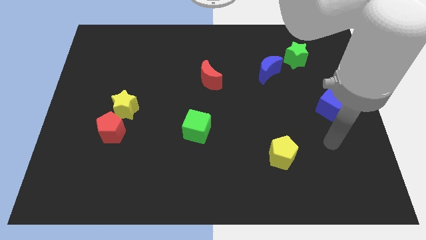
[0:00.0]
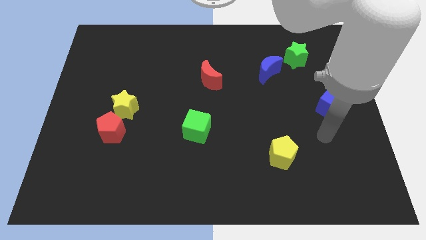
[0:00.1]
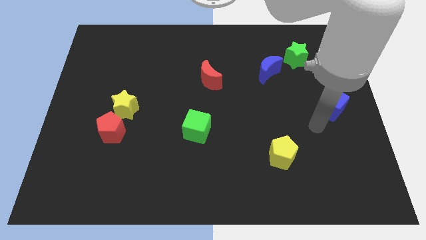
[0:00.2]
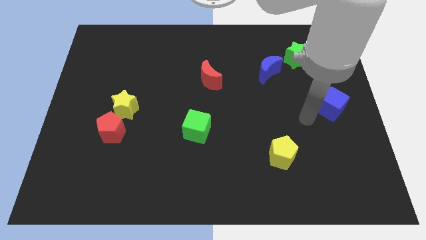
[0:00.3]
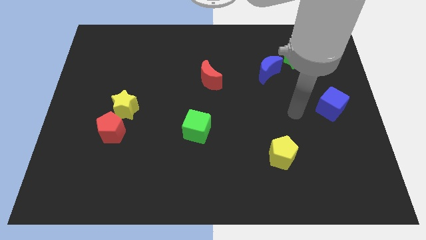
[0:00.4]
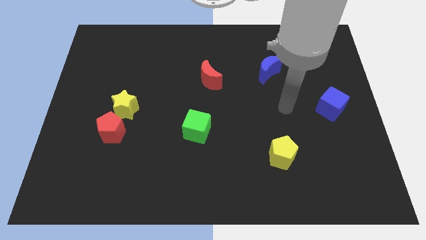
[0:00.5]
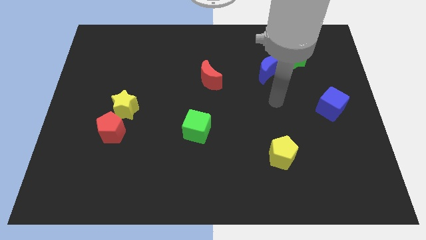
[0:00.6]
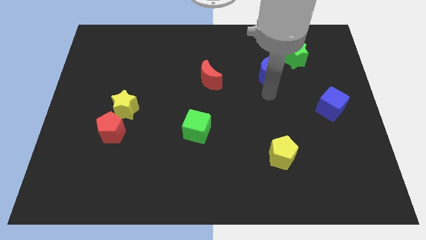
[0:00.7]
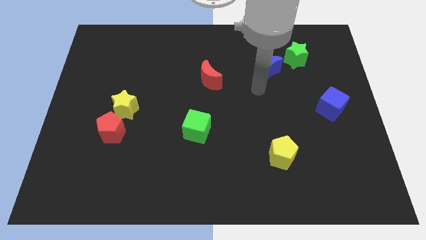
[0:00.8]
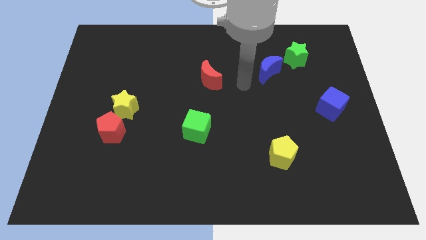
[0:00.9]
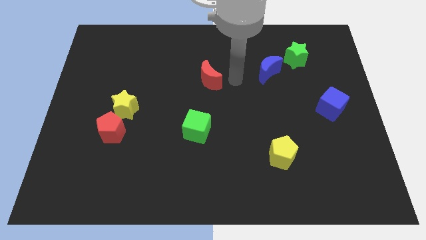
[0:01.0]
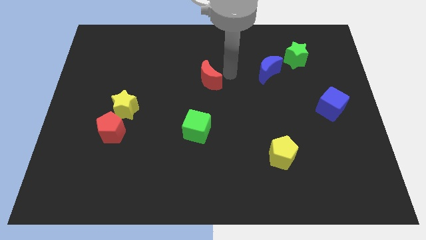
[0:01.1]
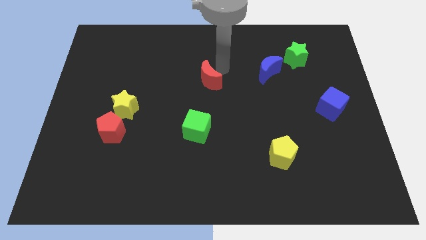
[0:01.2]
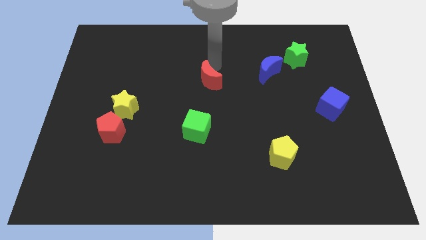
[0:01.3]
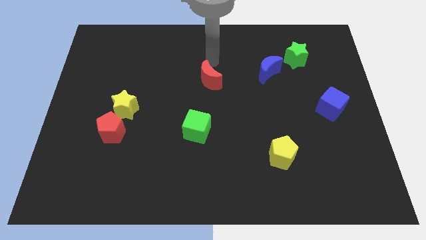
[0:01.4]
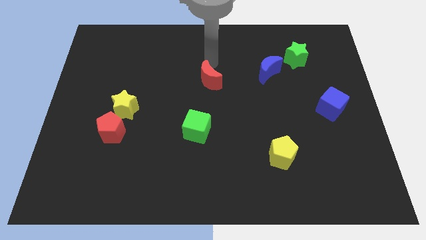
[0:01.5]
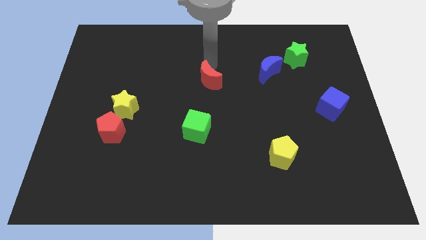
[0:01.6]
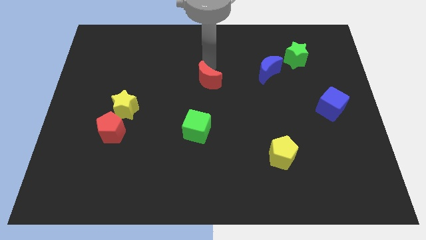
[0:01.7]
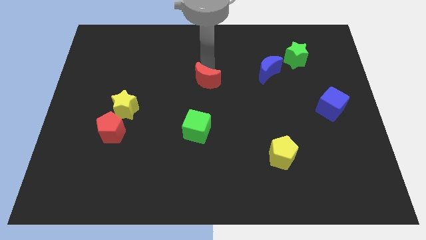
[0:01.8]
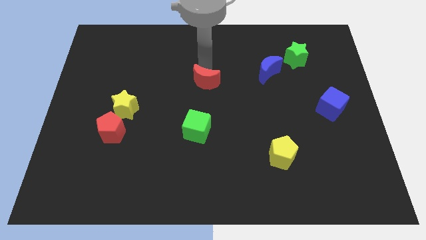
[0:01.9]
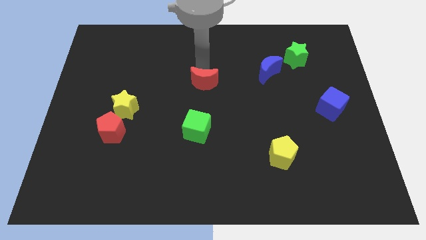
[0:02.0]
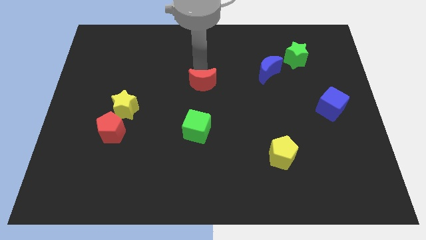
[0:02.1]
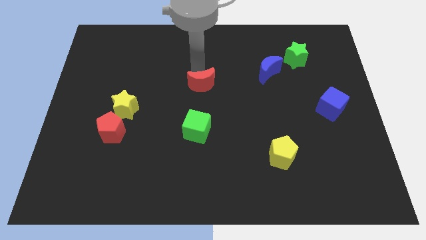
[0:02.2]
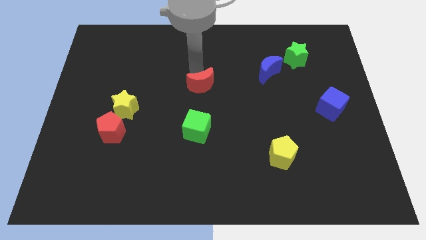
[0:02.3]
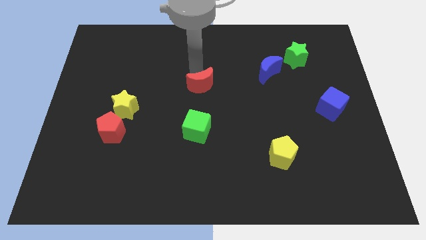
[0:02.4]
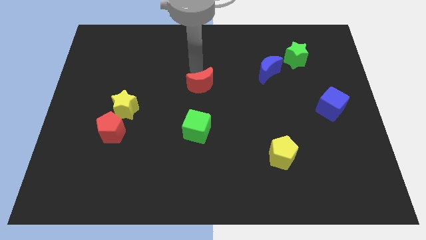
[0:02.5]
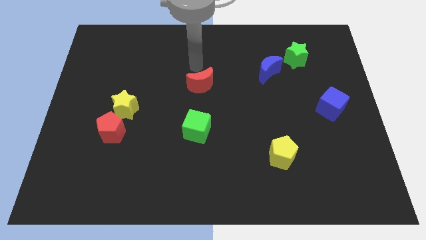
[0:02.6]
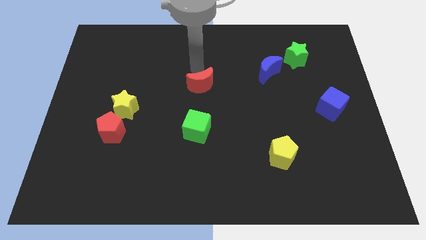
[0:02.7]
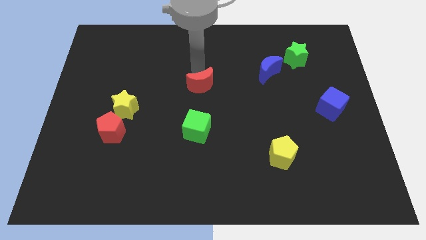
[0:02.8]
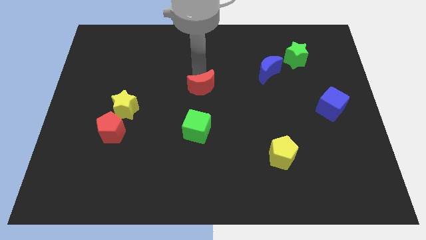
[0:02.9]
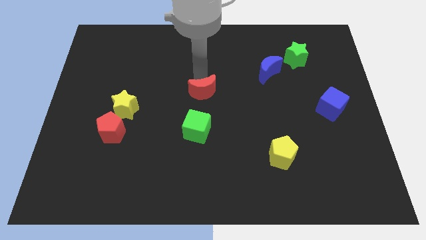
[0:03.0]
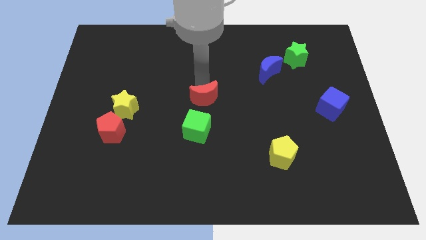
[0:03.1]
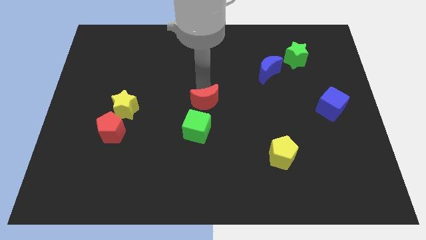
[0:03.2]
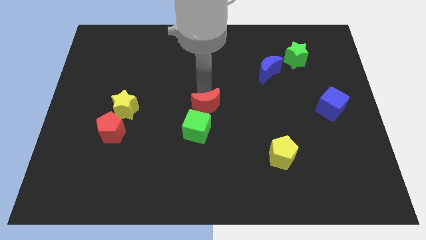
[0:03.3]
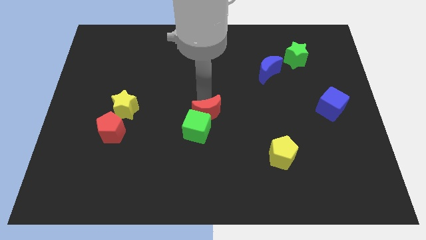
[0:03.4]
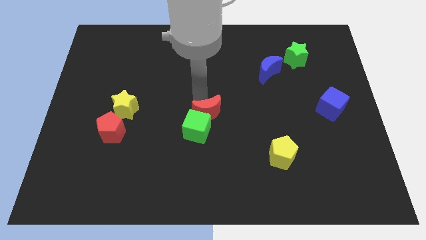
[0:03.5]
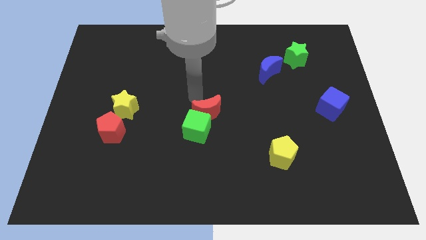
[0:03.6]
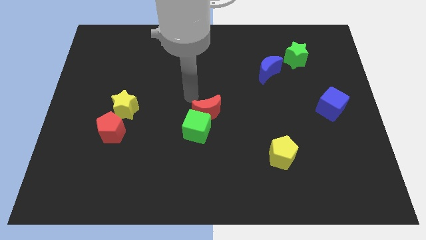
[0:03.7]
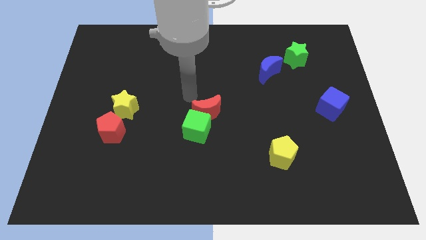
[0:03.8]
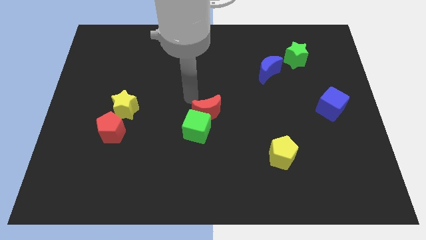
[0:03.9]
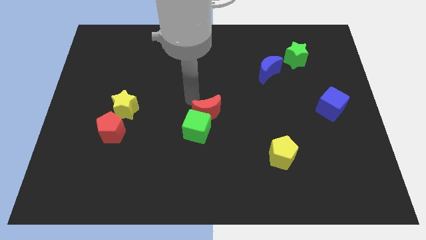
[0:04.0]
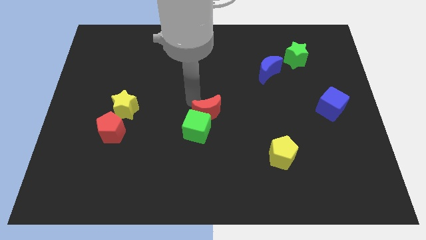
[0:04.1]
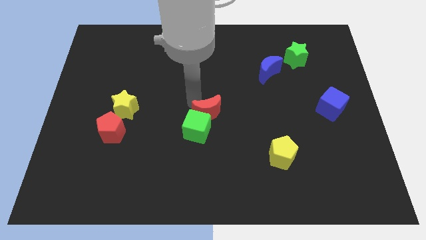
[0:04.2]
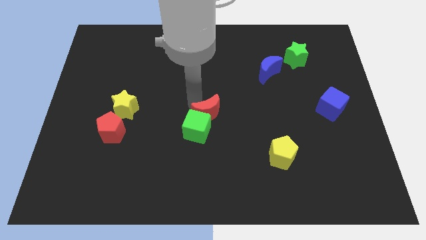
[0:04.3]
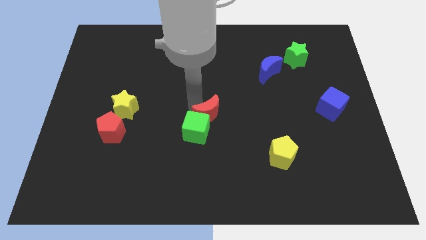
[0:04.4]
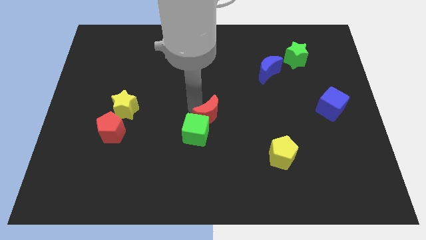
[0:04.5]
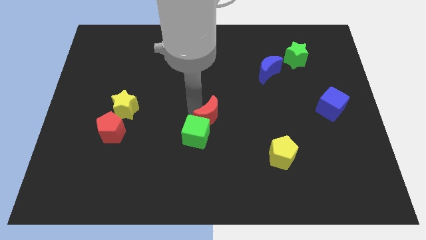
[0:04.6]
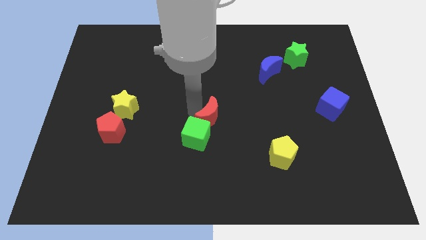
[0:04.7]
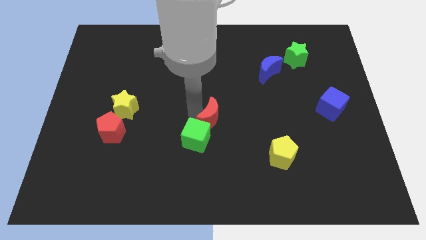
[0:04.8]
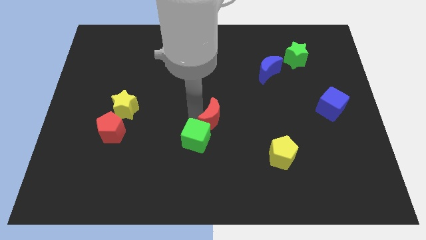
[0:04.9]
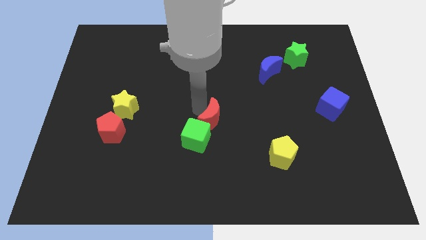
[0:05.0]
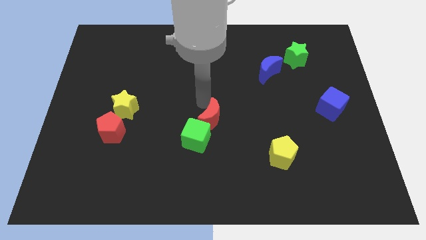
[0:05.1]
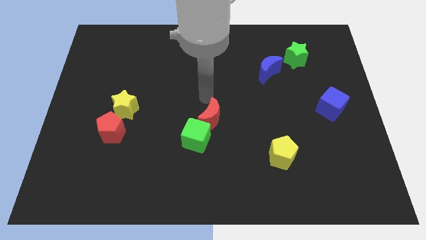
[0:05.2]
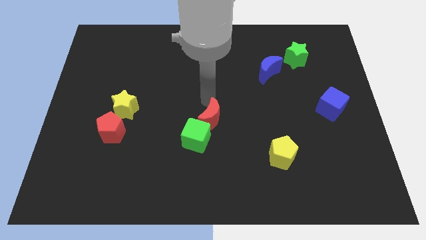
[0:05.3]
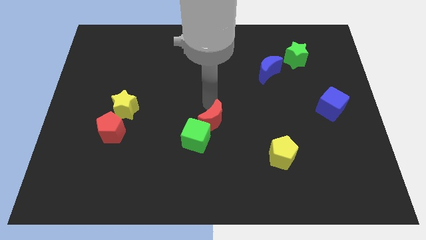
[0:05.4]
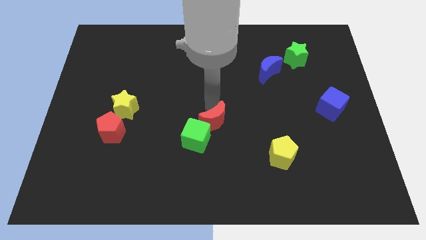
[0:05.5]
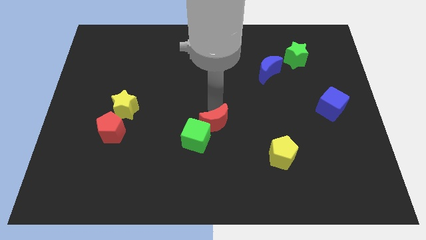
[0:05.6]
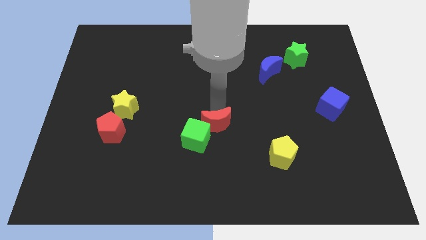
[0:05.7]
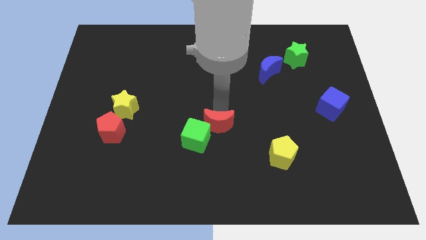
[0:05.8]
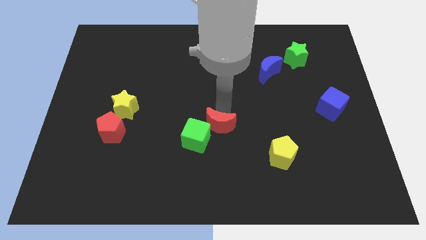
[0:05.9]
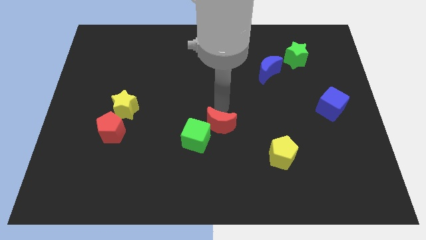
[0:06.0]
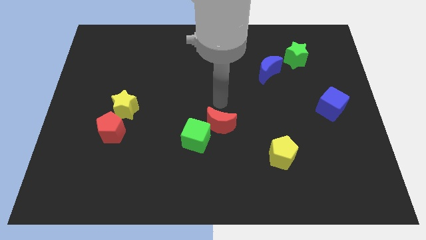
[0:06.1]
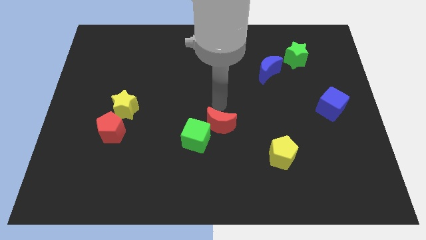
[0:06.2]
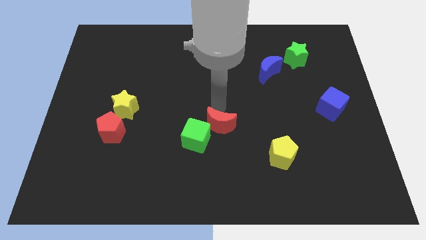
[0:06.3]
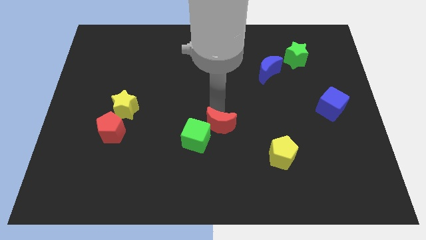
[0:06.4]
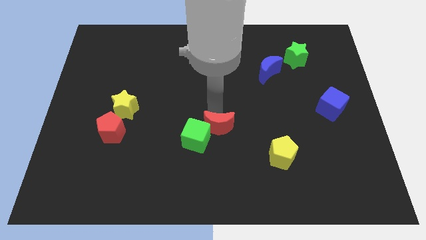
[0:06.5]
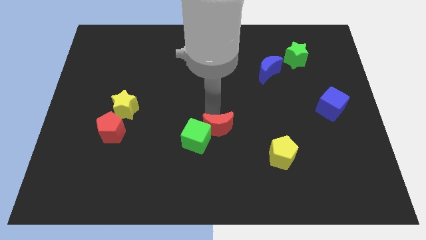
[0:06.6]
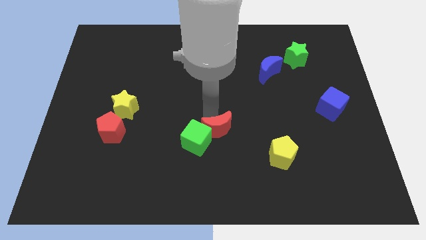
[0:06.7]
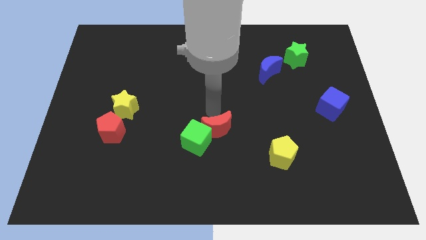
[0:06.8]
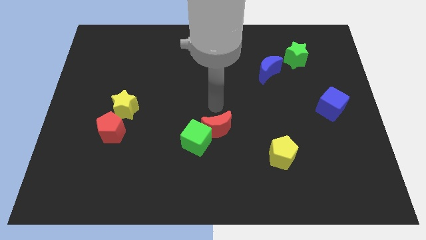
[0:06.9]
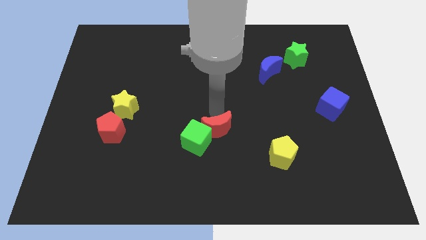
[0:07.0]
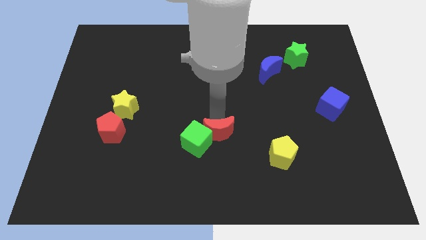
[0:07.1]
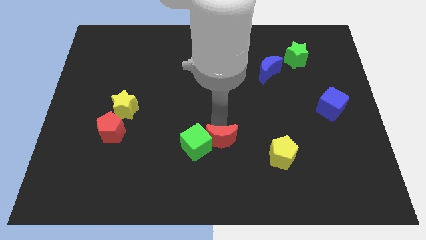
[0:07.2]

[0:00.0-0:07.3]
move the red moon to the bottom right side of the green cube

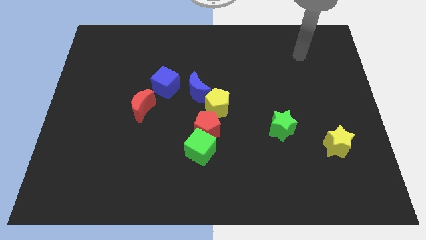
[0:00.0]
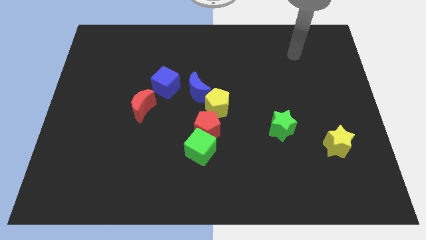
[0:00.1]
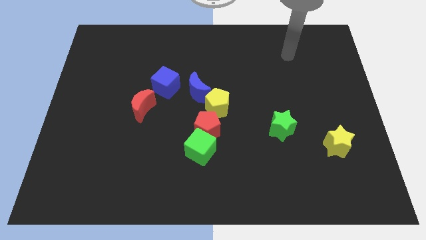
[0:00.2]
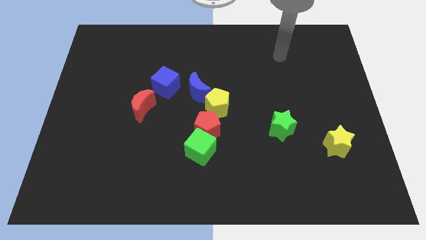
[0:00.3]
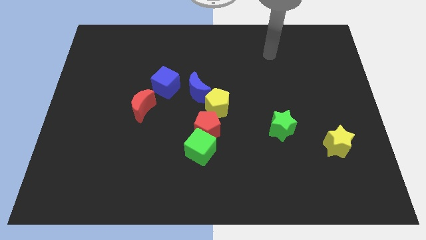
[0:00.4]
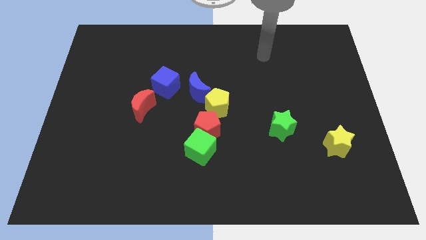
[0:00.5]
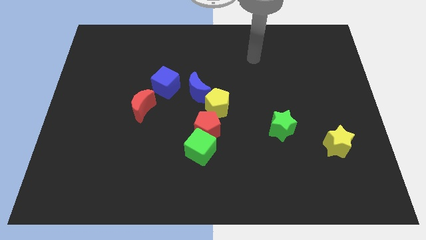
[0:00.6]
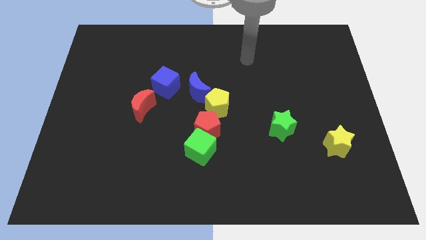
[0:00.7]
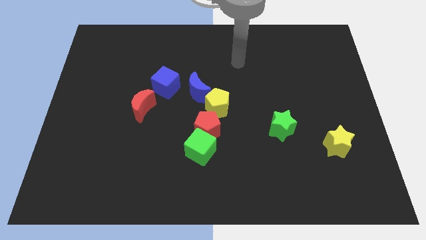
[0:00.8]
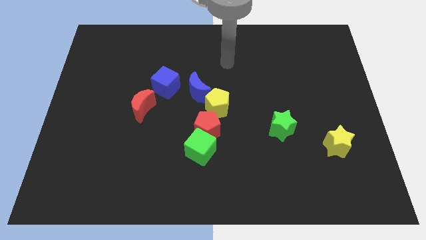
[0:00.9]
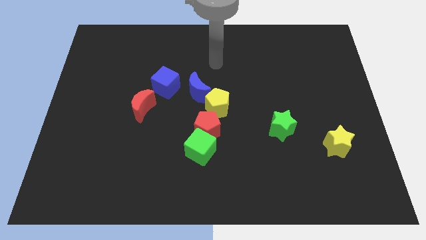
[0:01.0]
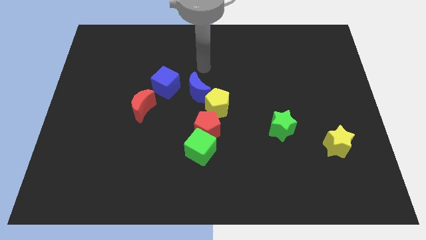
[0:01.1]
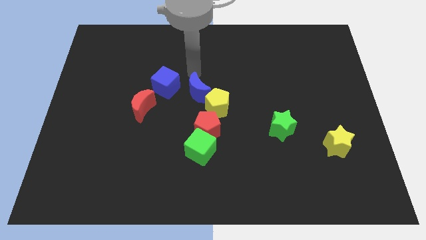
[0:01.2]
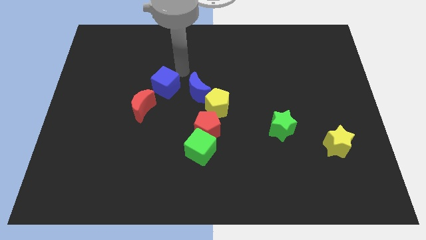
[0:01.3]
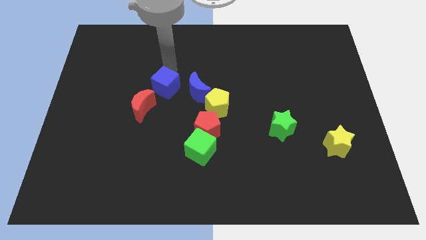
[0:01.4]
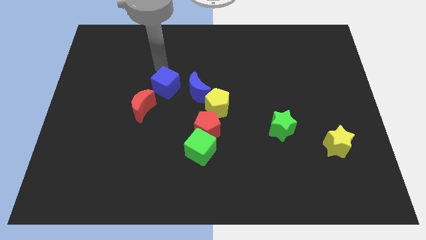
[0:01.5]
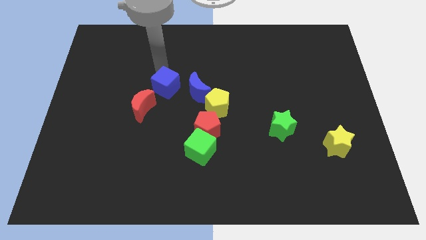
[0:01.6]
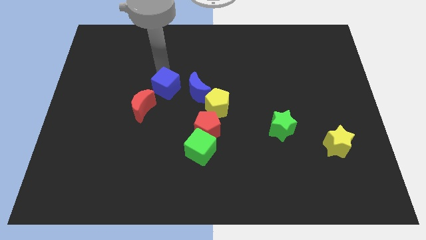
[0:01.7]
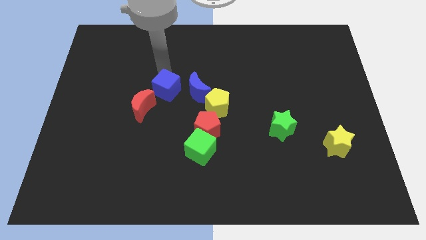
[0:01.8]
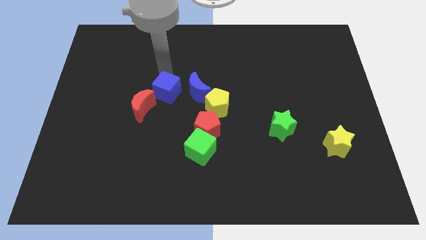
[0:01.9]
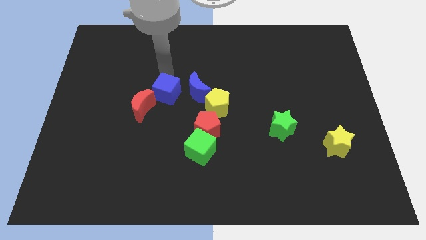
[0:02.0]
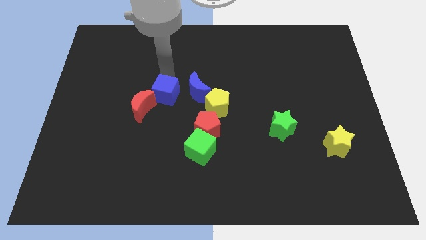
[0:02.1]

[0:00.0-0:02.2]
slide the blue cube to the bottom left side of the blue moon
